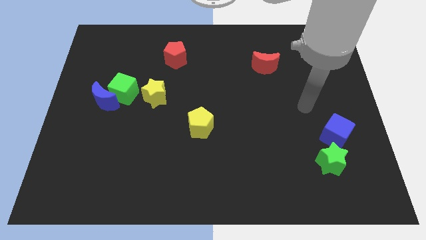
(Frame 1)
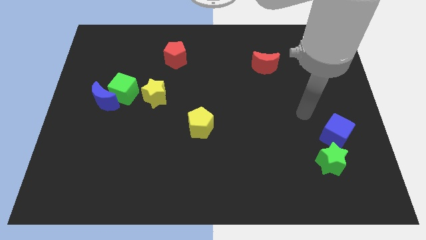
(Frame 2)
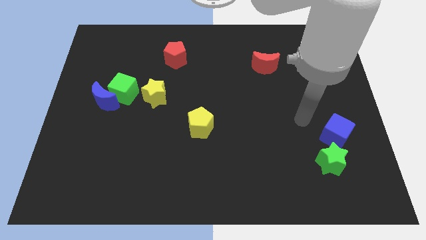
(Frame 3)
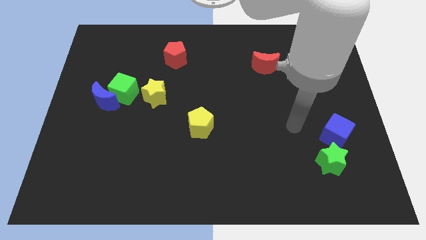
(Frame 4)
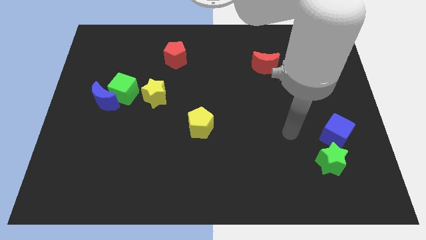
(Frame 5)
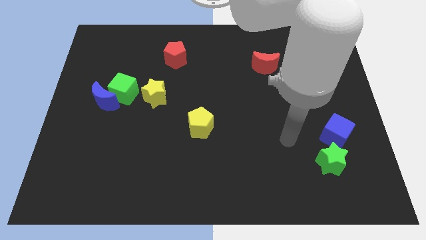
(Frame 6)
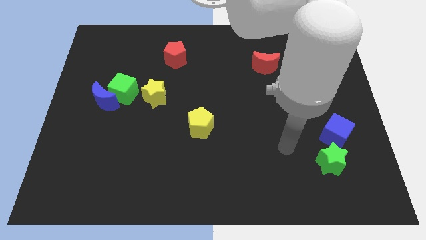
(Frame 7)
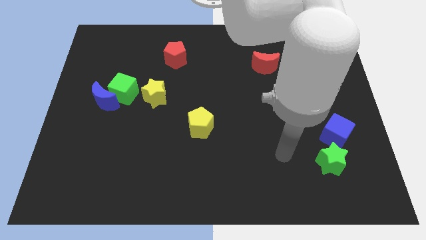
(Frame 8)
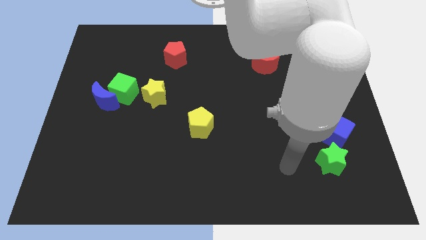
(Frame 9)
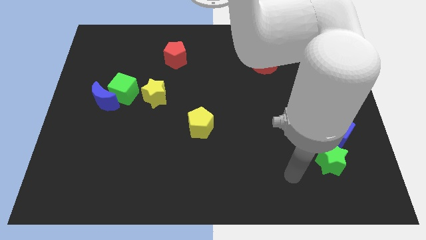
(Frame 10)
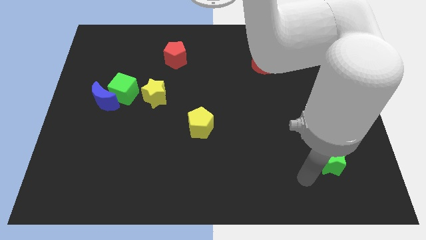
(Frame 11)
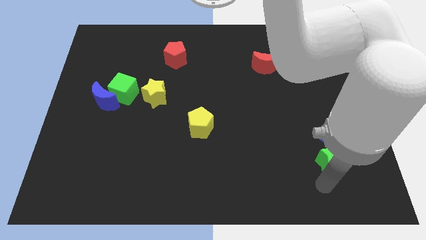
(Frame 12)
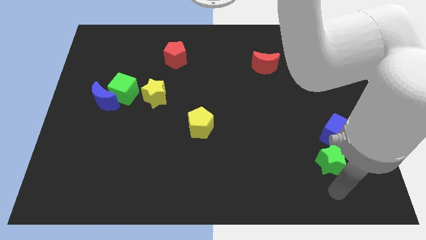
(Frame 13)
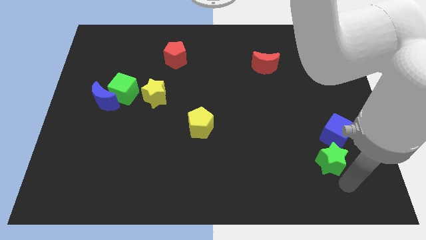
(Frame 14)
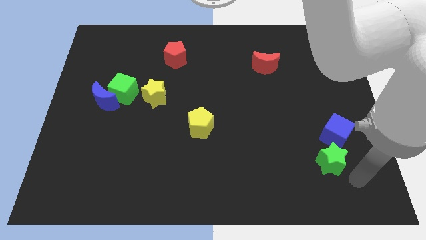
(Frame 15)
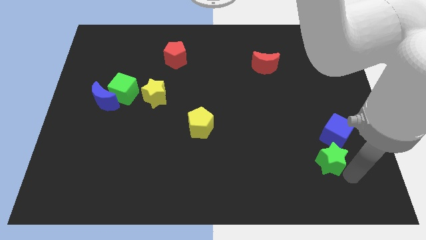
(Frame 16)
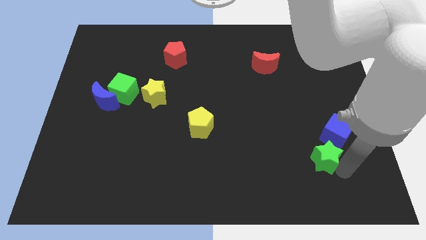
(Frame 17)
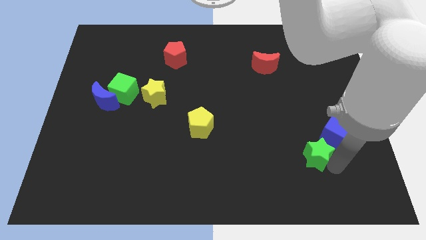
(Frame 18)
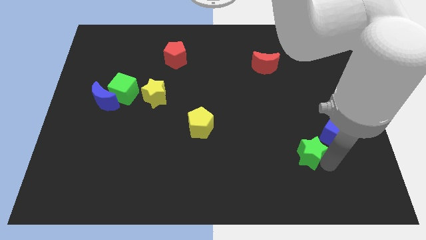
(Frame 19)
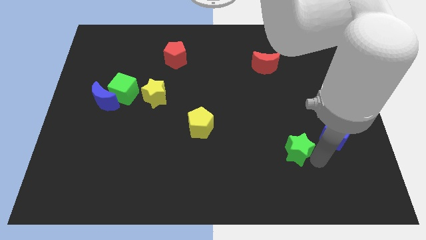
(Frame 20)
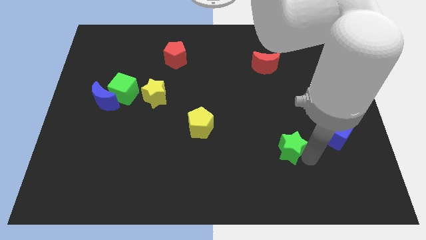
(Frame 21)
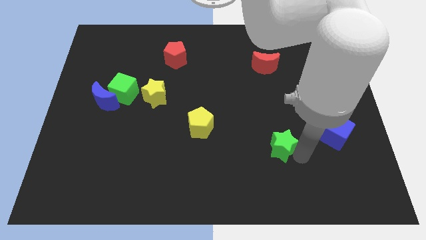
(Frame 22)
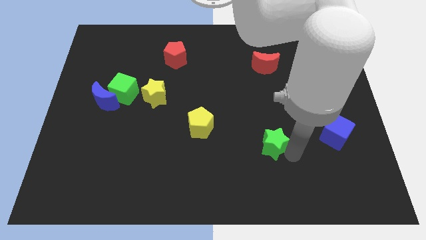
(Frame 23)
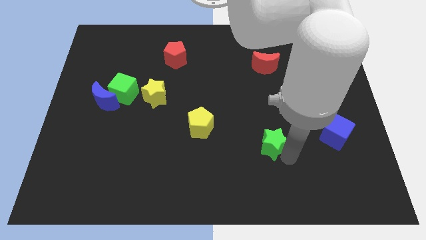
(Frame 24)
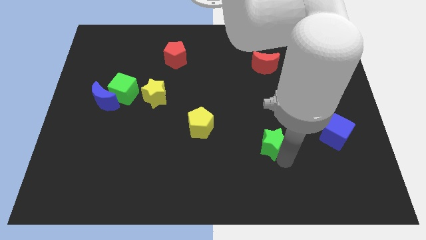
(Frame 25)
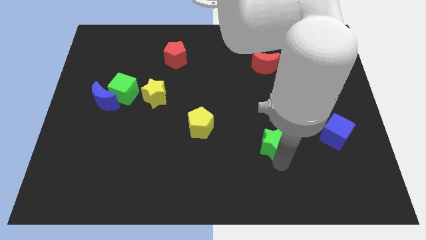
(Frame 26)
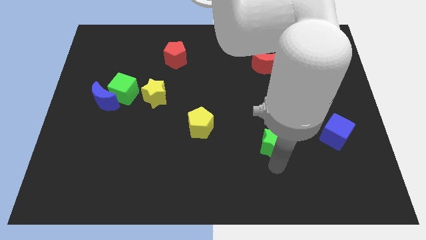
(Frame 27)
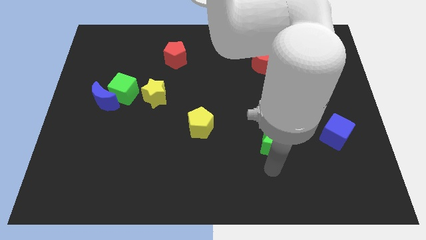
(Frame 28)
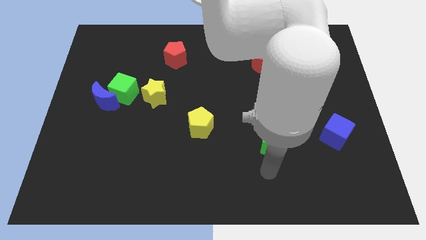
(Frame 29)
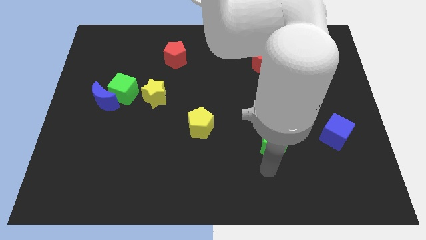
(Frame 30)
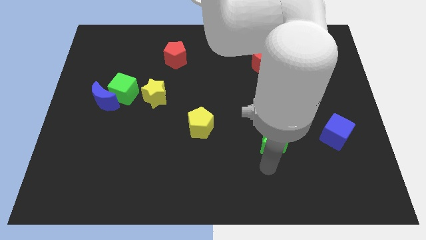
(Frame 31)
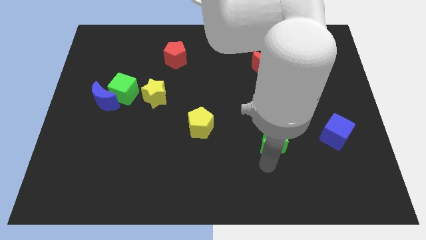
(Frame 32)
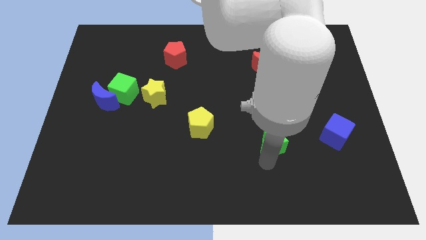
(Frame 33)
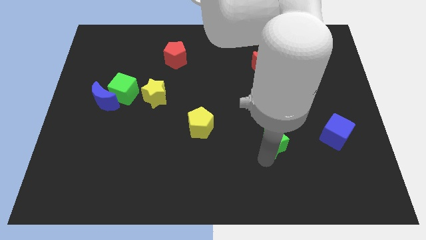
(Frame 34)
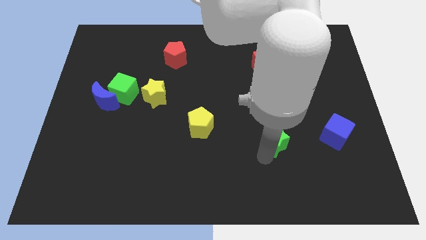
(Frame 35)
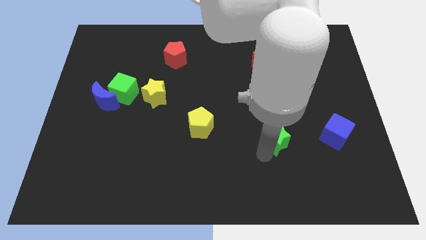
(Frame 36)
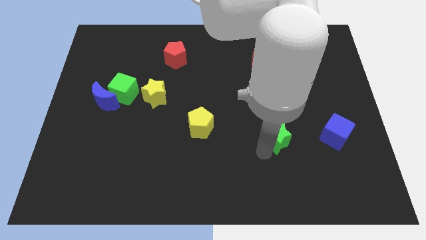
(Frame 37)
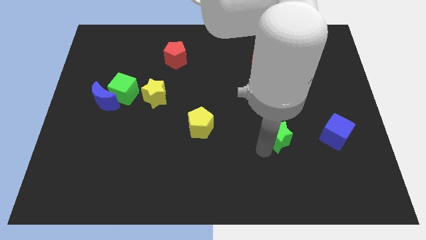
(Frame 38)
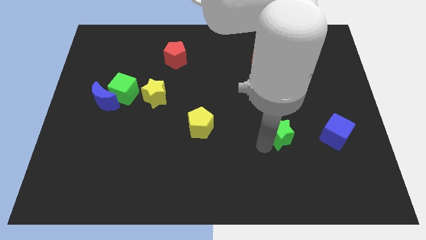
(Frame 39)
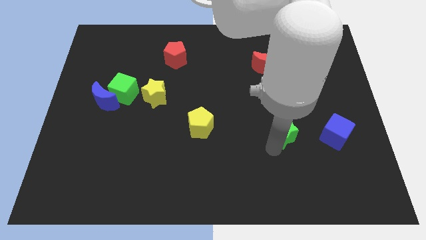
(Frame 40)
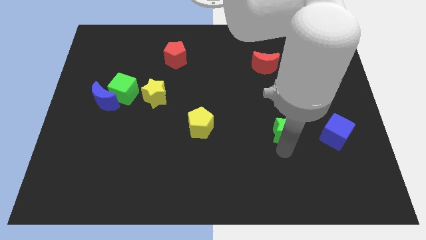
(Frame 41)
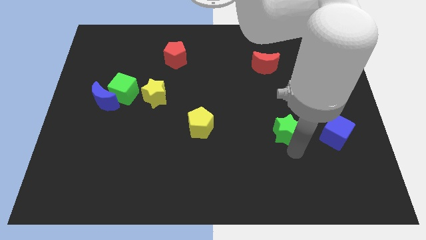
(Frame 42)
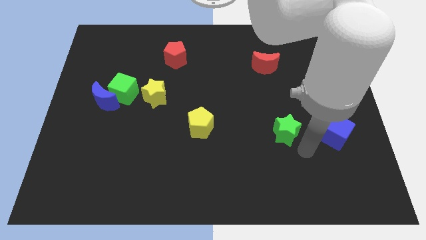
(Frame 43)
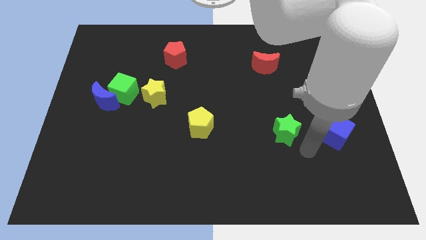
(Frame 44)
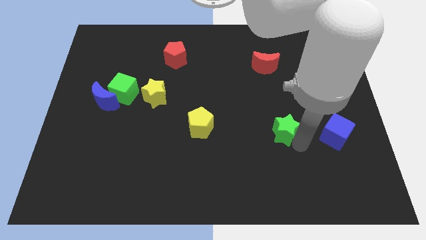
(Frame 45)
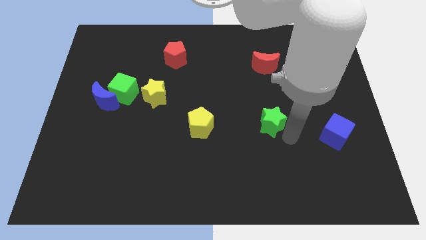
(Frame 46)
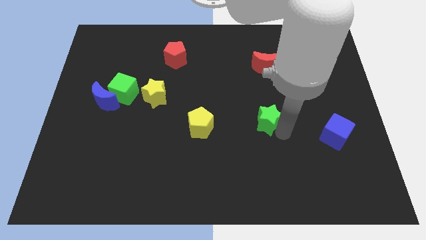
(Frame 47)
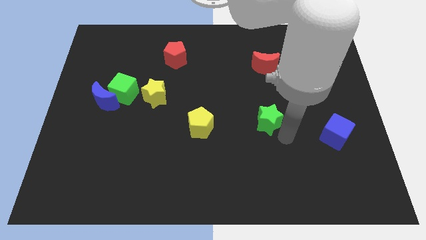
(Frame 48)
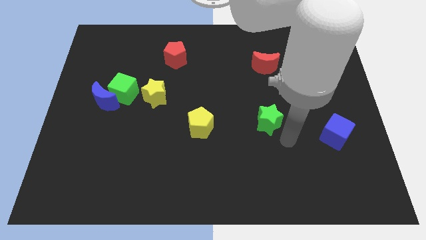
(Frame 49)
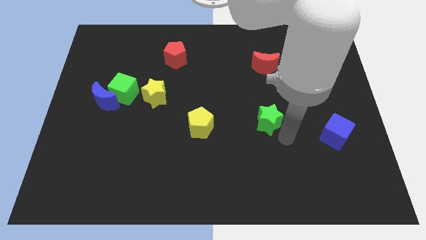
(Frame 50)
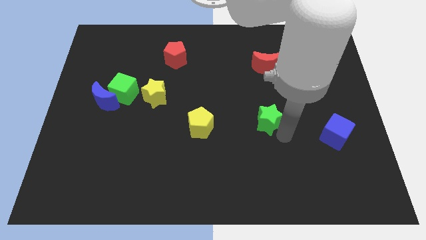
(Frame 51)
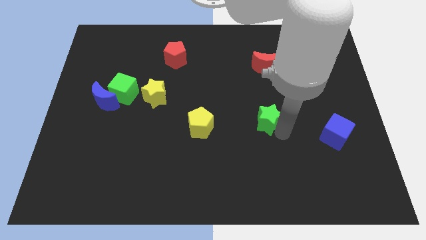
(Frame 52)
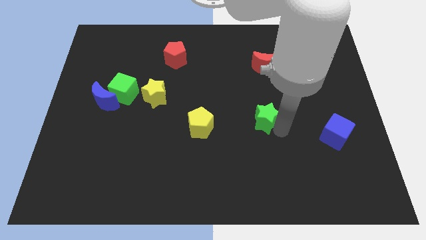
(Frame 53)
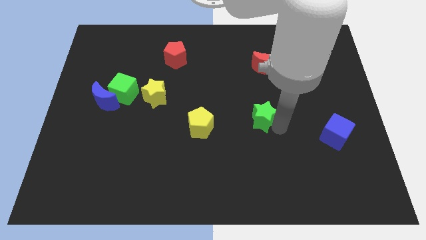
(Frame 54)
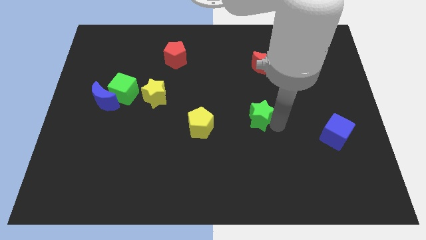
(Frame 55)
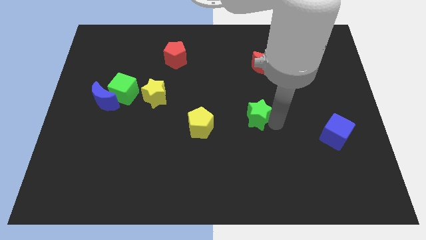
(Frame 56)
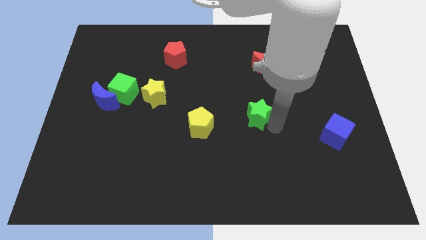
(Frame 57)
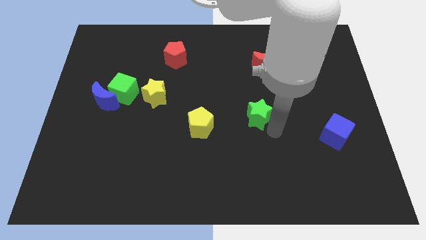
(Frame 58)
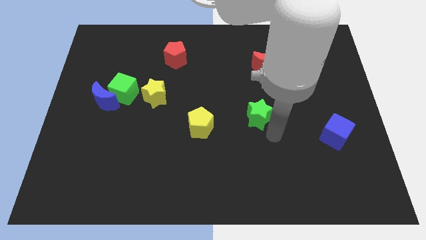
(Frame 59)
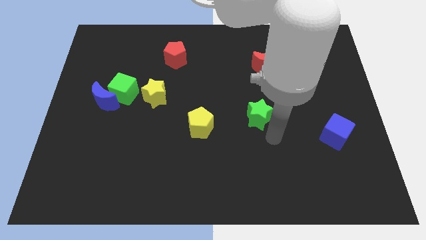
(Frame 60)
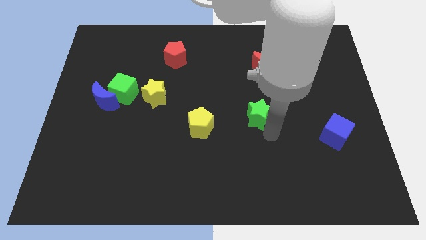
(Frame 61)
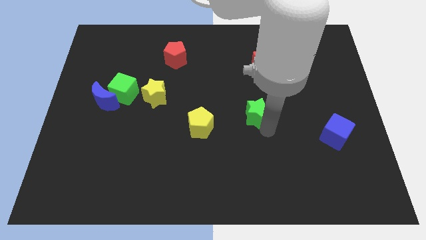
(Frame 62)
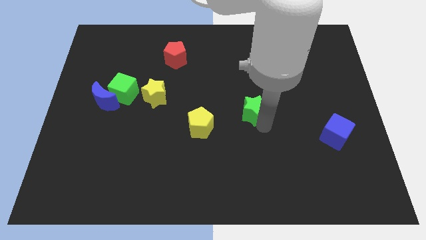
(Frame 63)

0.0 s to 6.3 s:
push the green star up and then left

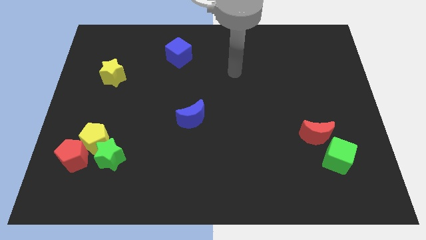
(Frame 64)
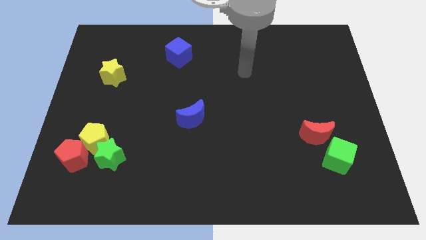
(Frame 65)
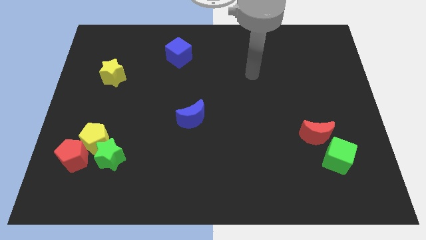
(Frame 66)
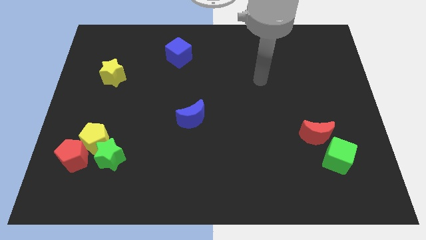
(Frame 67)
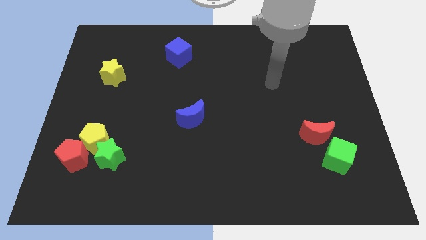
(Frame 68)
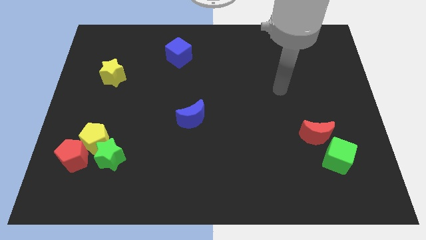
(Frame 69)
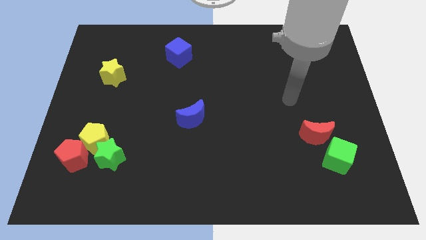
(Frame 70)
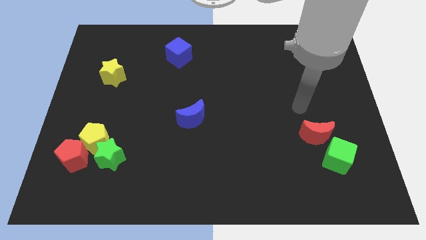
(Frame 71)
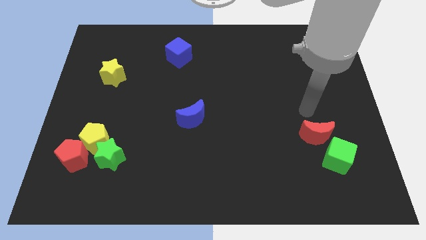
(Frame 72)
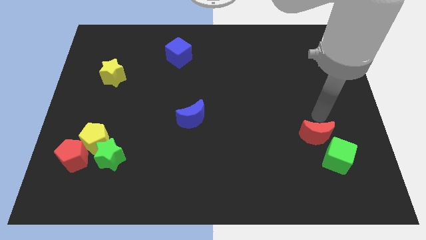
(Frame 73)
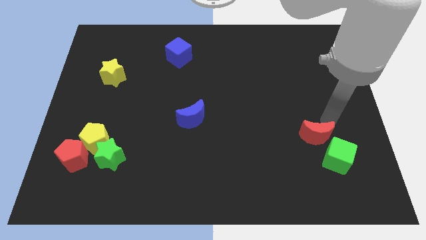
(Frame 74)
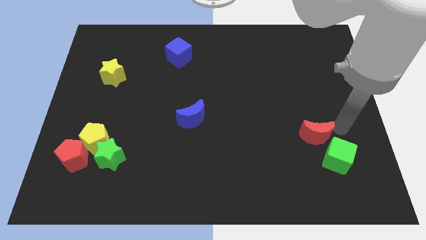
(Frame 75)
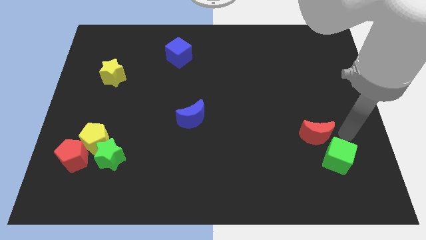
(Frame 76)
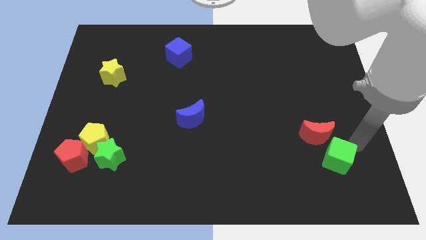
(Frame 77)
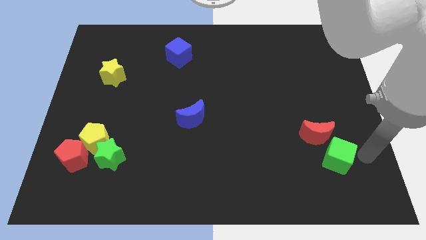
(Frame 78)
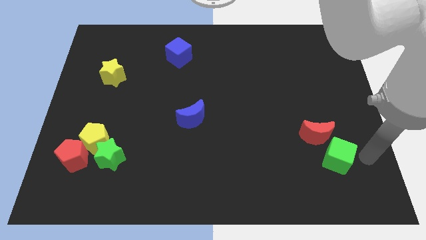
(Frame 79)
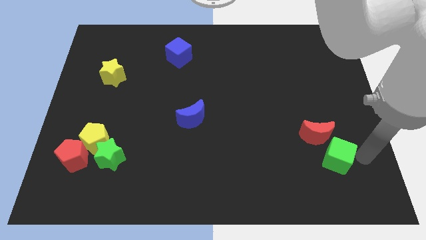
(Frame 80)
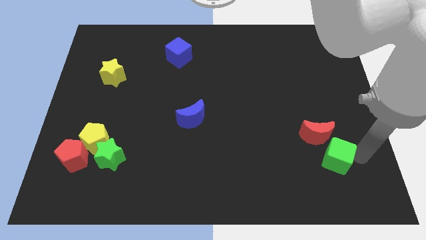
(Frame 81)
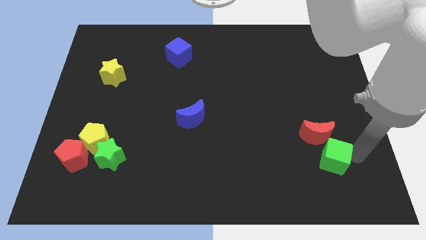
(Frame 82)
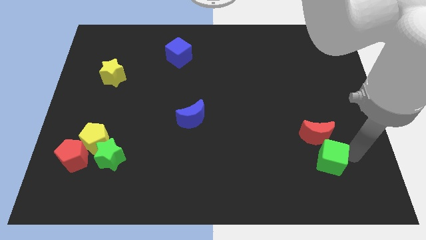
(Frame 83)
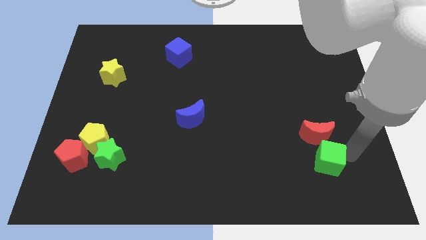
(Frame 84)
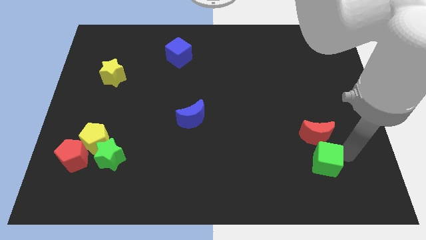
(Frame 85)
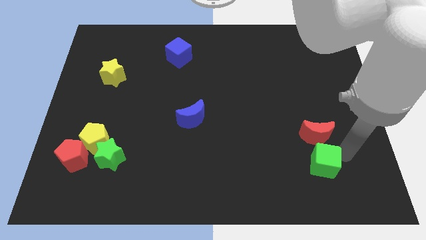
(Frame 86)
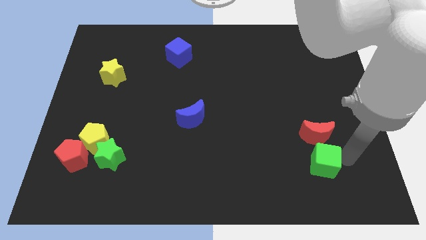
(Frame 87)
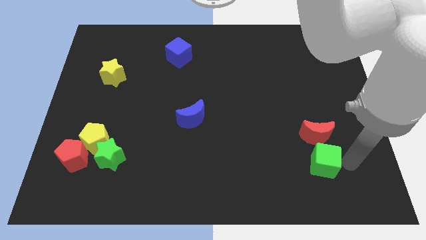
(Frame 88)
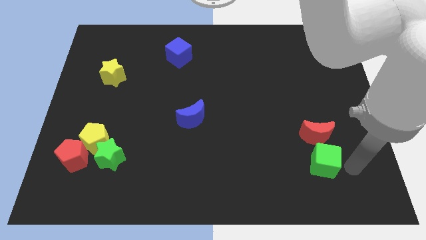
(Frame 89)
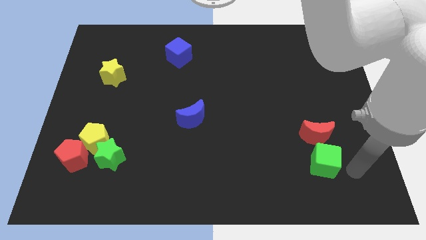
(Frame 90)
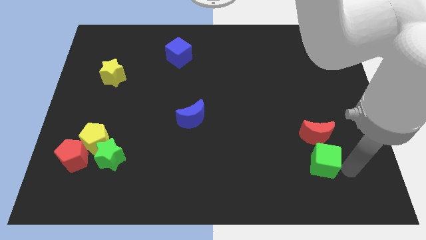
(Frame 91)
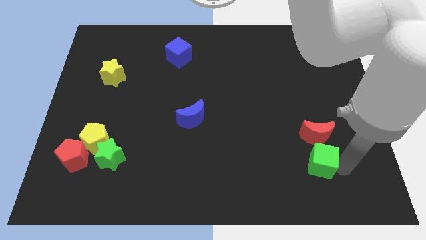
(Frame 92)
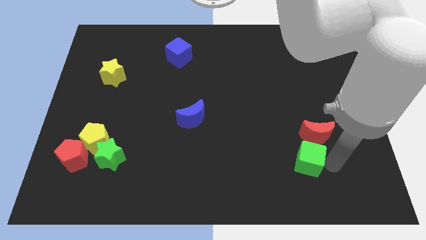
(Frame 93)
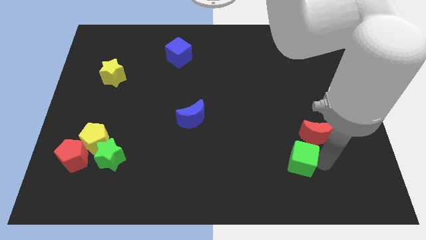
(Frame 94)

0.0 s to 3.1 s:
move the green cube a little to the left
